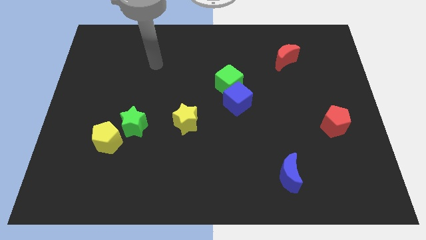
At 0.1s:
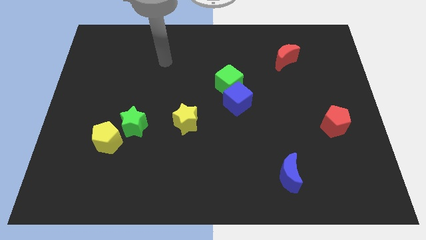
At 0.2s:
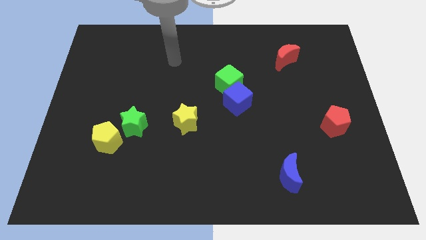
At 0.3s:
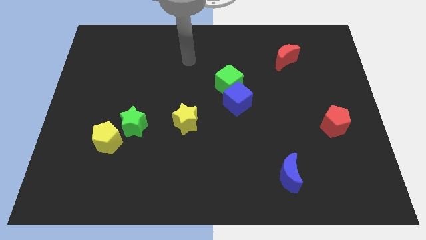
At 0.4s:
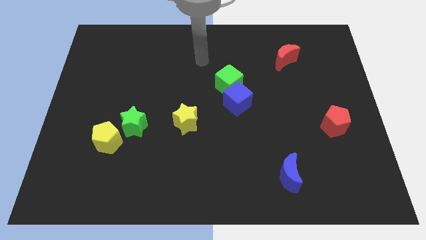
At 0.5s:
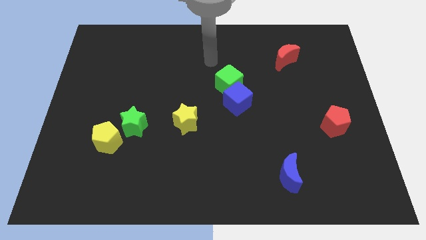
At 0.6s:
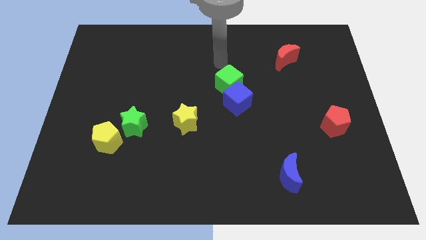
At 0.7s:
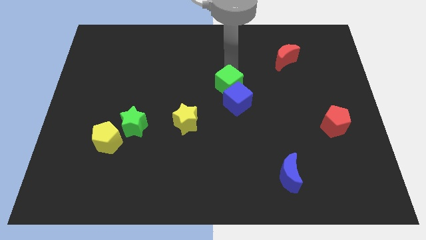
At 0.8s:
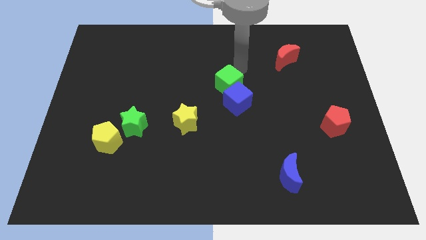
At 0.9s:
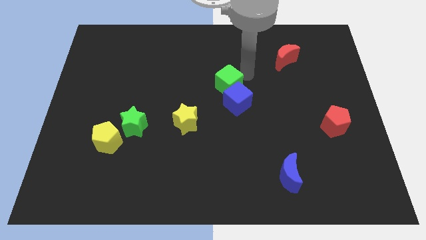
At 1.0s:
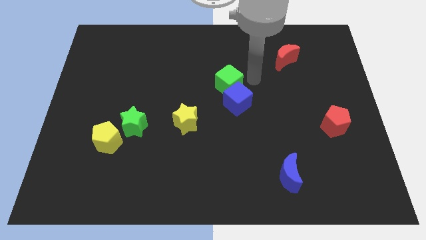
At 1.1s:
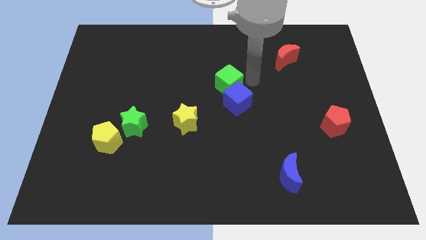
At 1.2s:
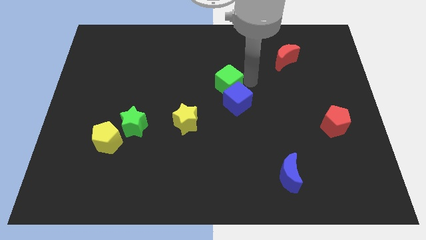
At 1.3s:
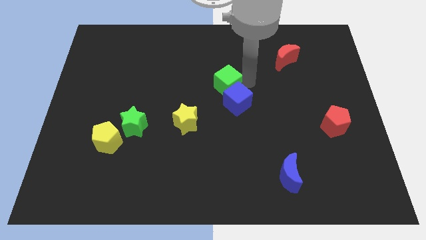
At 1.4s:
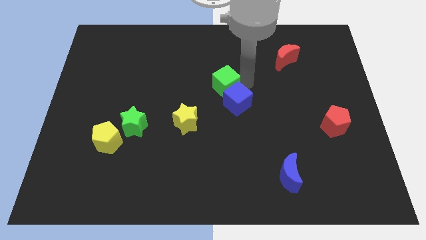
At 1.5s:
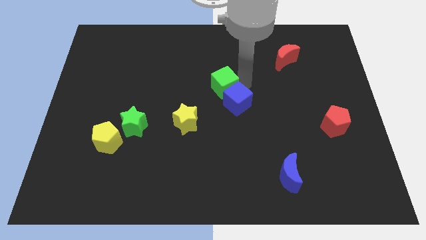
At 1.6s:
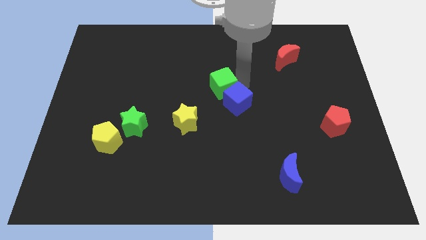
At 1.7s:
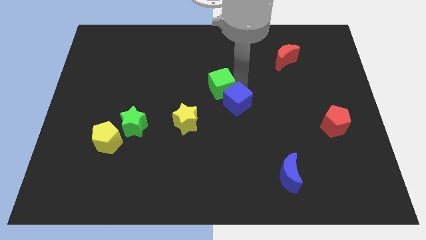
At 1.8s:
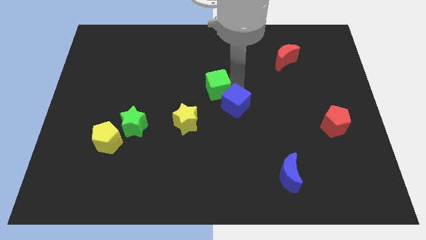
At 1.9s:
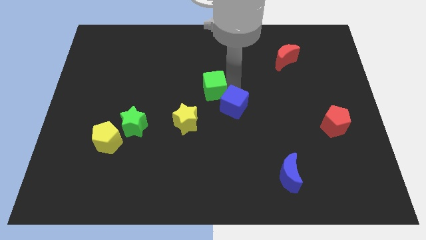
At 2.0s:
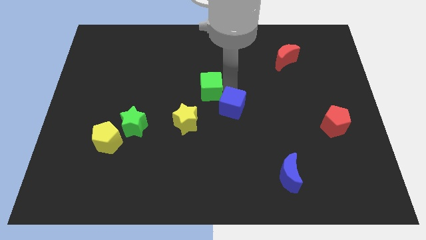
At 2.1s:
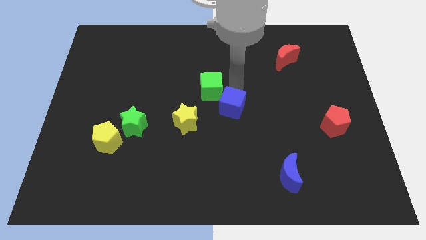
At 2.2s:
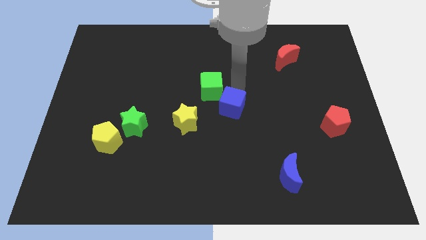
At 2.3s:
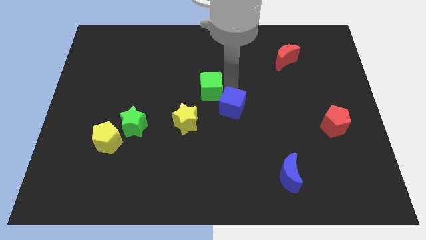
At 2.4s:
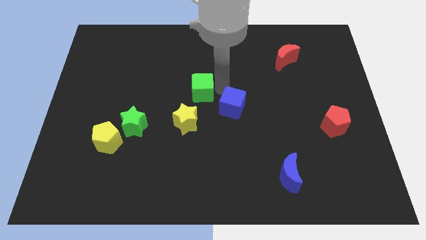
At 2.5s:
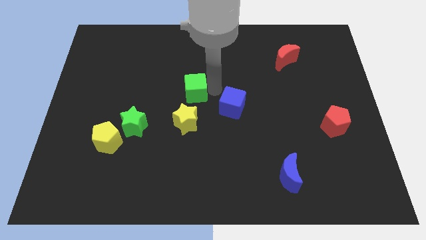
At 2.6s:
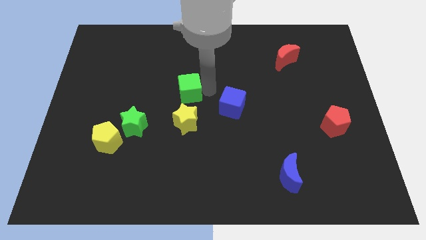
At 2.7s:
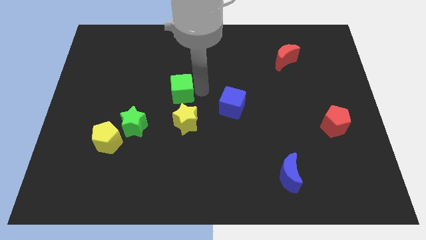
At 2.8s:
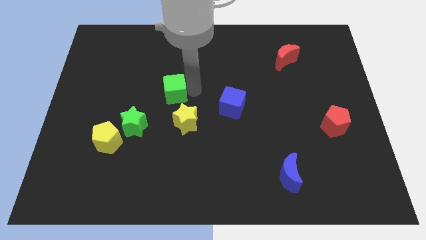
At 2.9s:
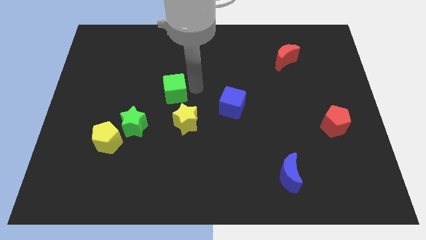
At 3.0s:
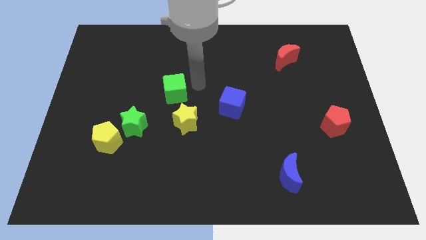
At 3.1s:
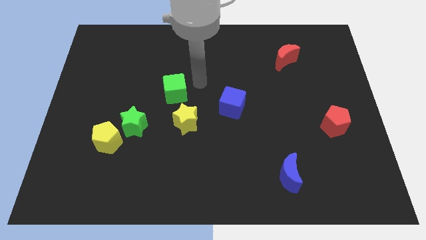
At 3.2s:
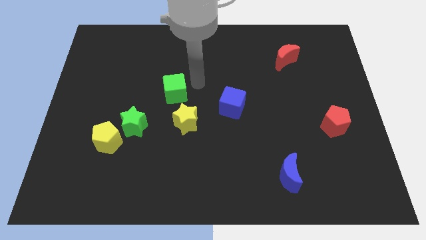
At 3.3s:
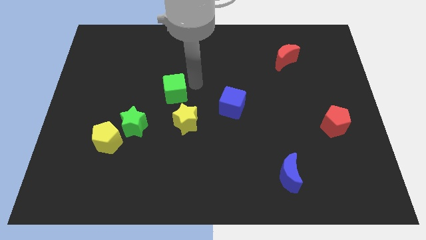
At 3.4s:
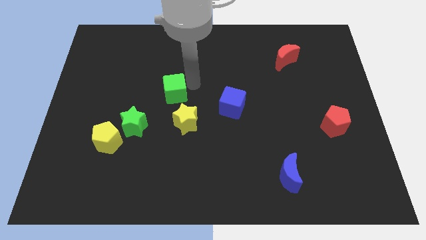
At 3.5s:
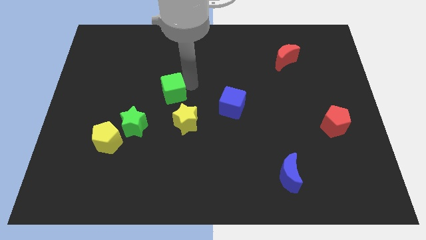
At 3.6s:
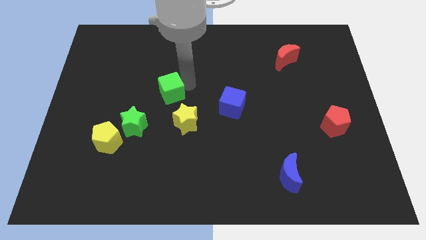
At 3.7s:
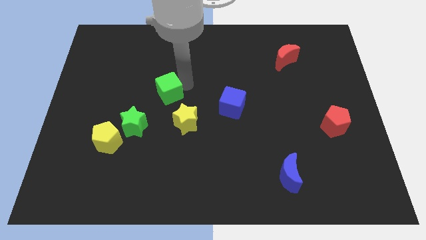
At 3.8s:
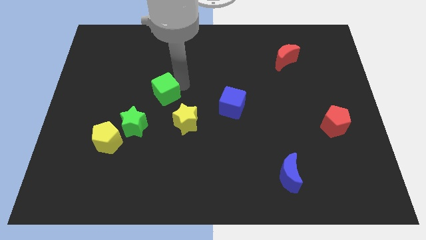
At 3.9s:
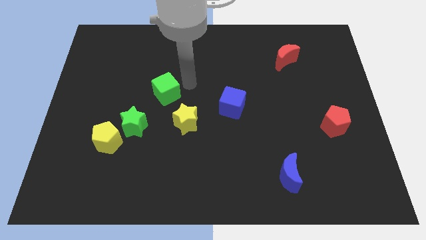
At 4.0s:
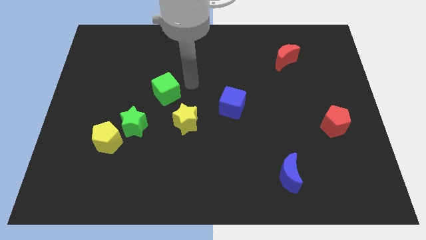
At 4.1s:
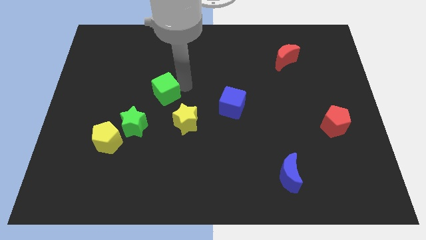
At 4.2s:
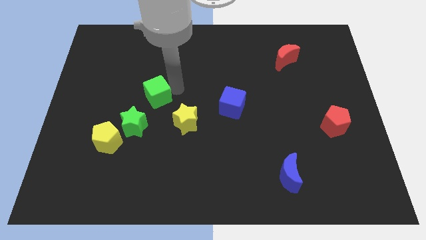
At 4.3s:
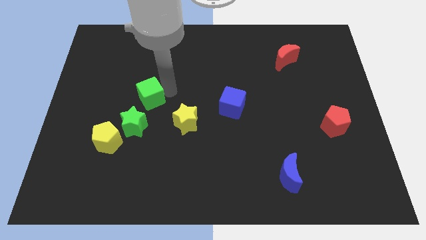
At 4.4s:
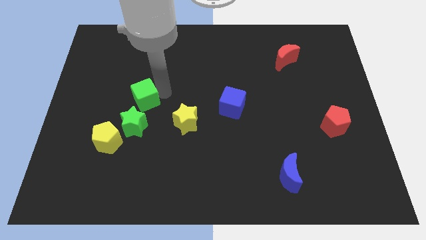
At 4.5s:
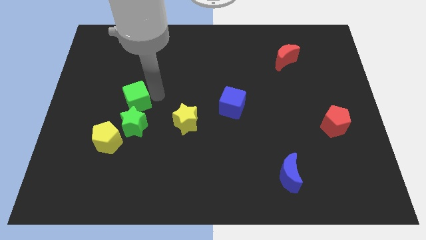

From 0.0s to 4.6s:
move the green cube to the top of the yellow pentagon

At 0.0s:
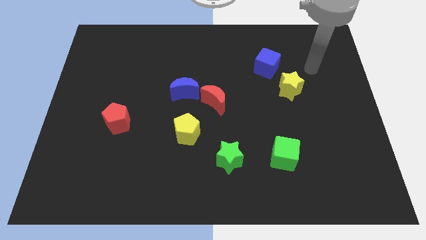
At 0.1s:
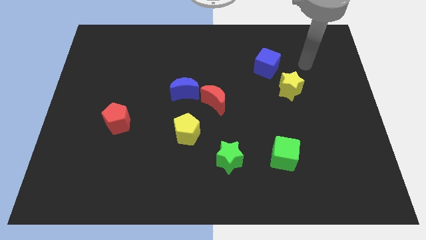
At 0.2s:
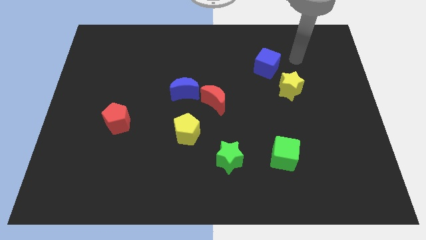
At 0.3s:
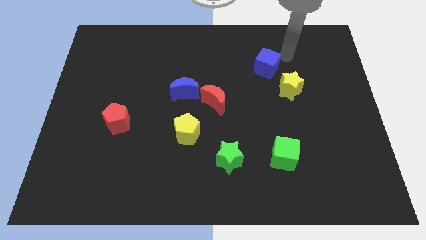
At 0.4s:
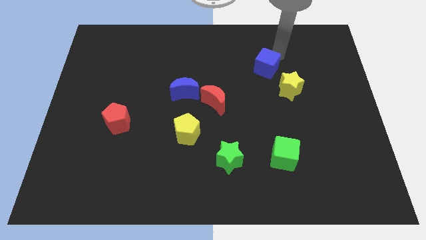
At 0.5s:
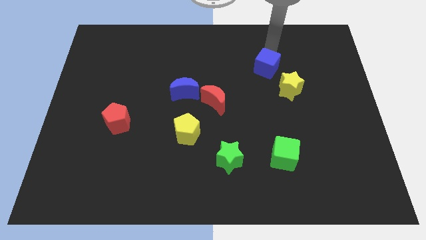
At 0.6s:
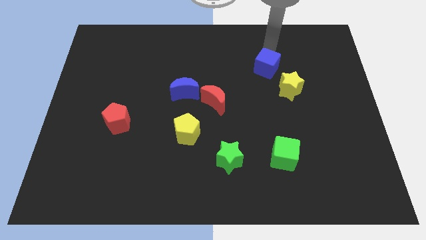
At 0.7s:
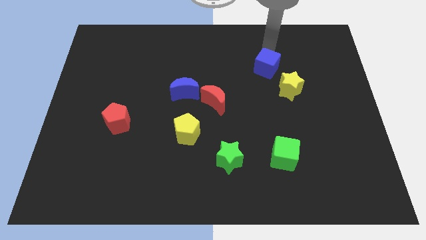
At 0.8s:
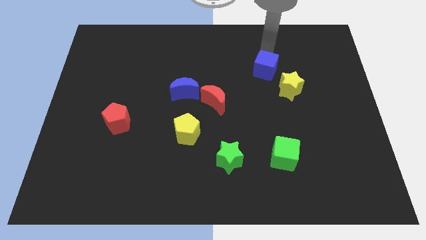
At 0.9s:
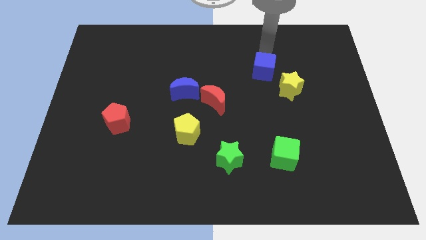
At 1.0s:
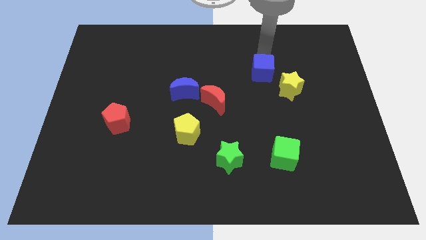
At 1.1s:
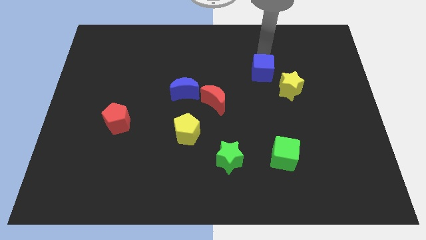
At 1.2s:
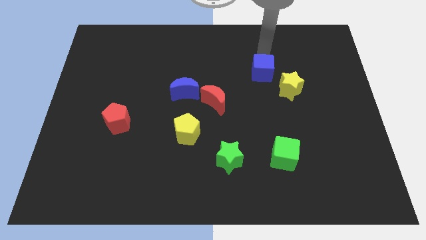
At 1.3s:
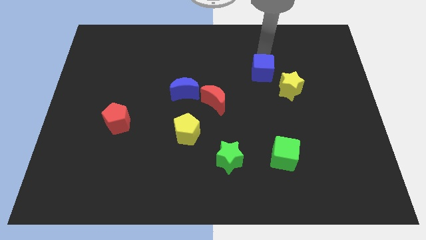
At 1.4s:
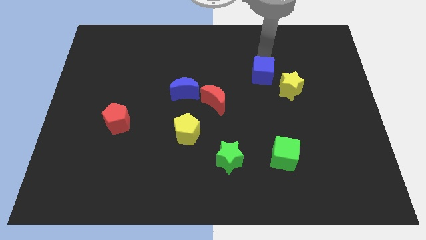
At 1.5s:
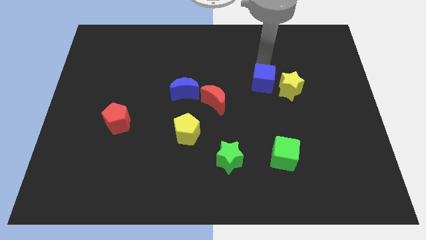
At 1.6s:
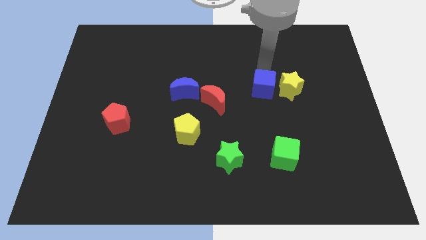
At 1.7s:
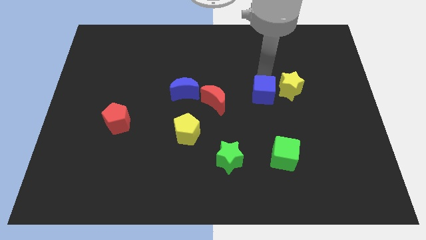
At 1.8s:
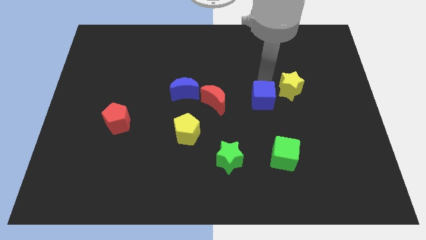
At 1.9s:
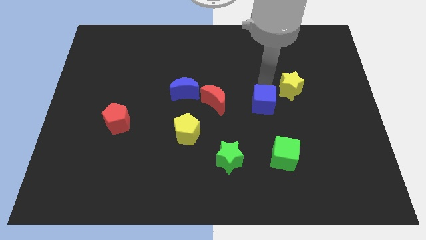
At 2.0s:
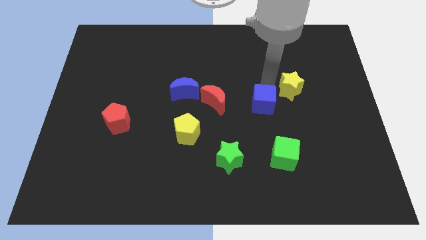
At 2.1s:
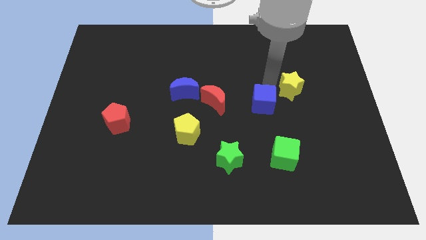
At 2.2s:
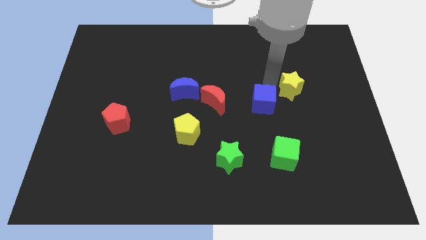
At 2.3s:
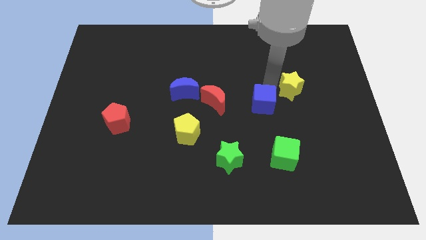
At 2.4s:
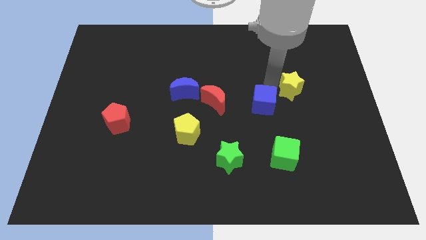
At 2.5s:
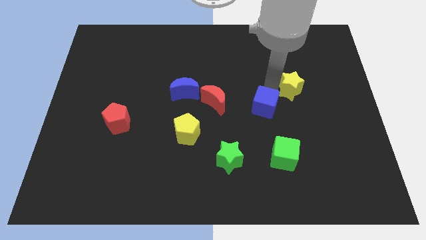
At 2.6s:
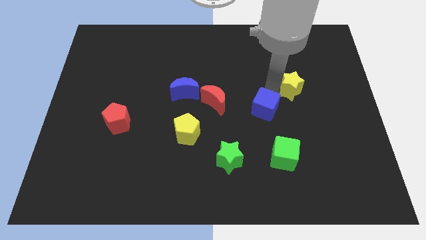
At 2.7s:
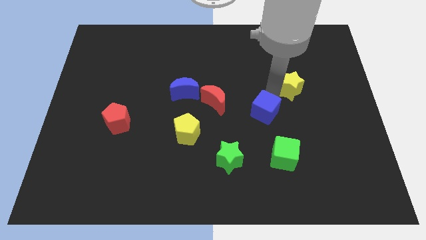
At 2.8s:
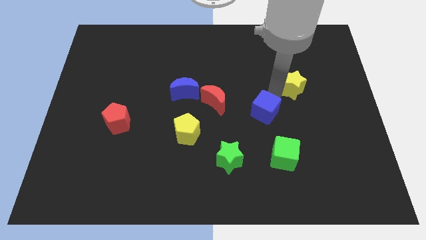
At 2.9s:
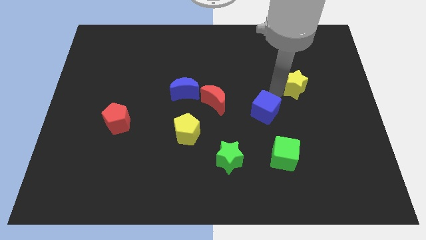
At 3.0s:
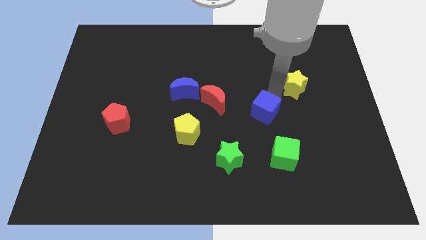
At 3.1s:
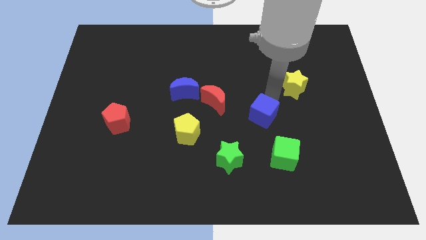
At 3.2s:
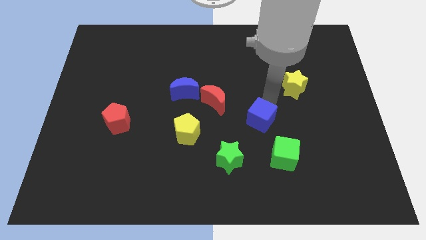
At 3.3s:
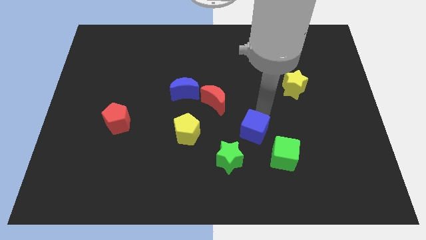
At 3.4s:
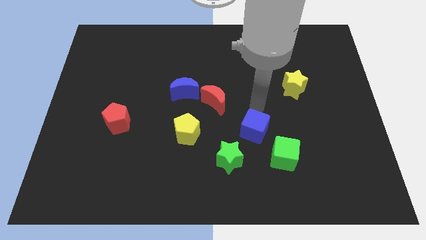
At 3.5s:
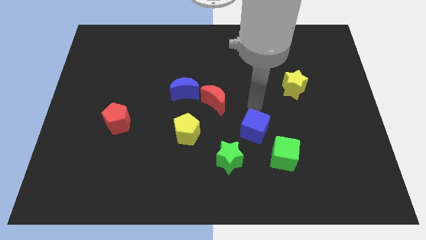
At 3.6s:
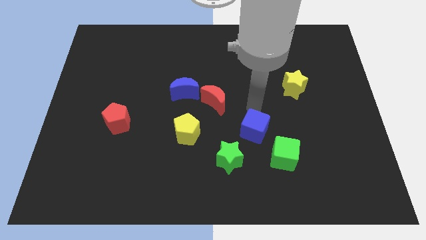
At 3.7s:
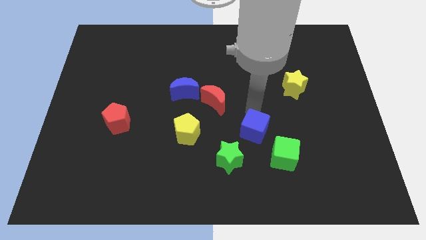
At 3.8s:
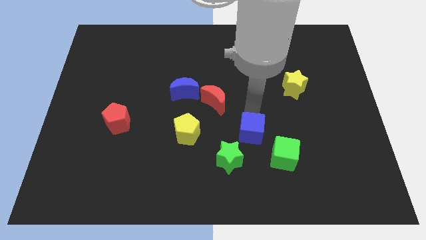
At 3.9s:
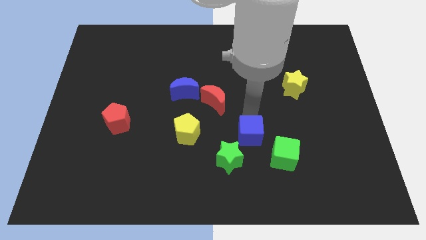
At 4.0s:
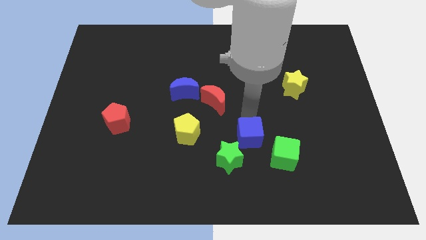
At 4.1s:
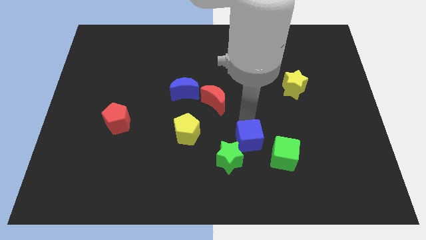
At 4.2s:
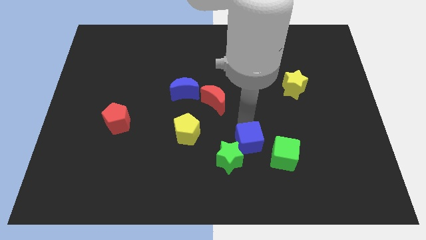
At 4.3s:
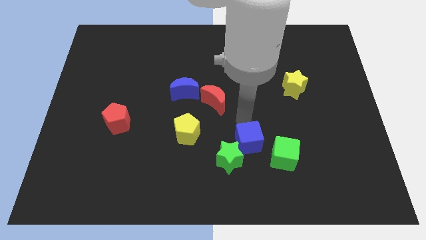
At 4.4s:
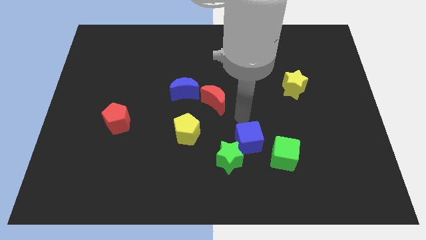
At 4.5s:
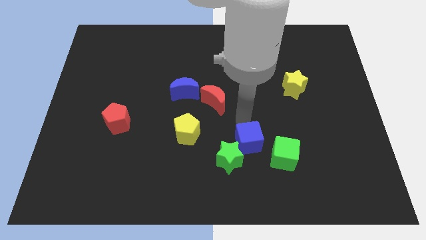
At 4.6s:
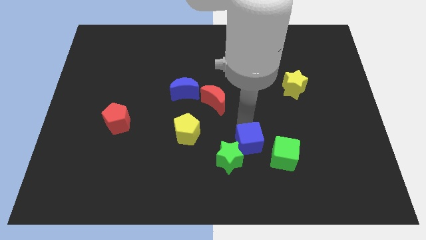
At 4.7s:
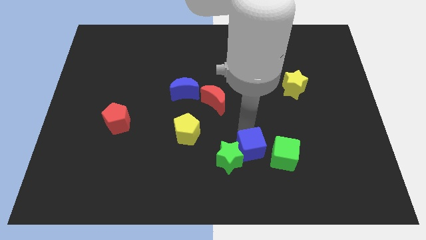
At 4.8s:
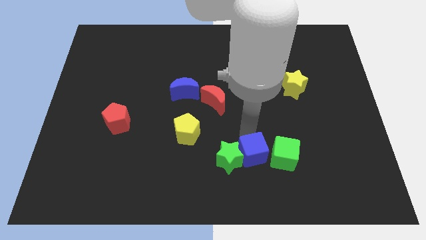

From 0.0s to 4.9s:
put the blue cube diagonally down and to the right of the green star
